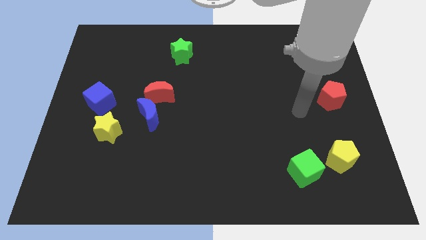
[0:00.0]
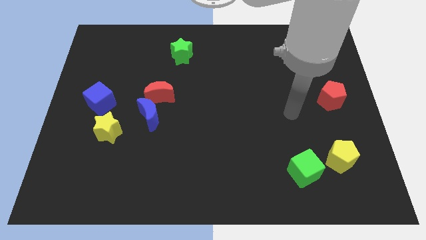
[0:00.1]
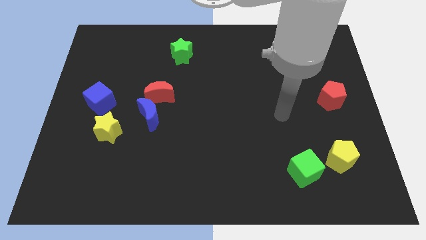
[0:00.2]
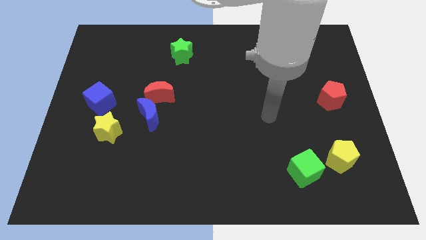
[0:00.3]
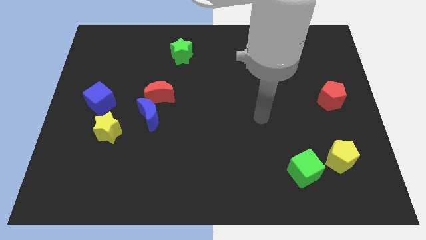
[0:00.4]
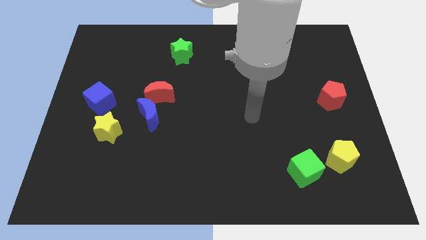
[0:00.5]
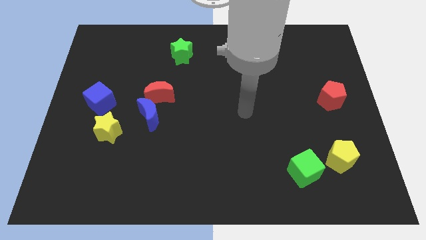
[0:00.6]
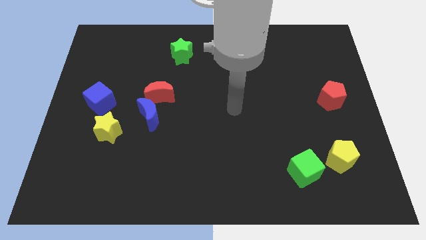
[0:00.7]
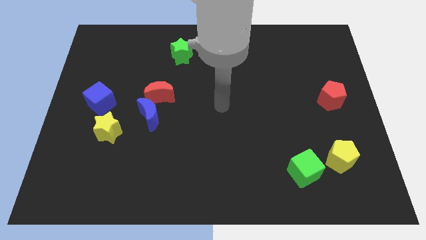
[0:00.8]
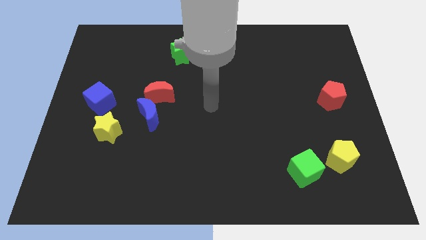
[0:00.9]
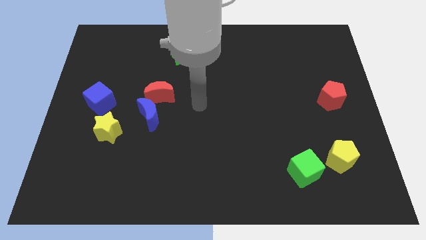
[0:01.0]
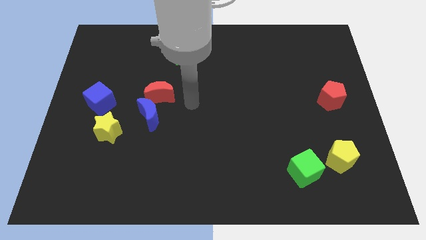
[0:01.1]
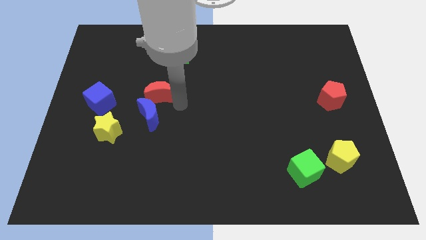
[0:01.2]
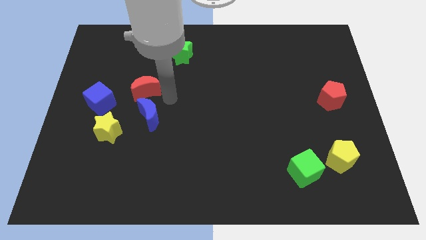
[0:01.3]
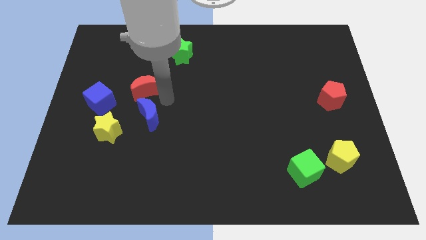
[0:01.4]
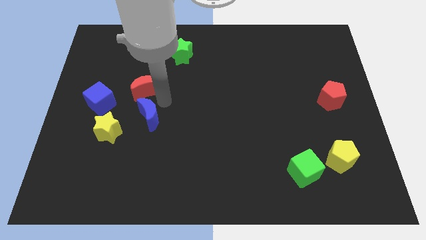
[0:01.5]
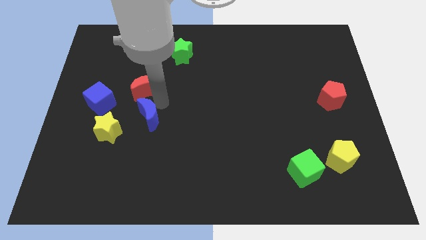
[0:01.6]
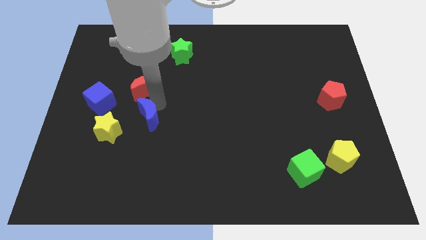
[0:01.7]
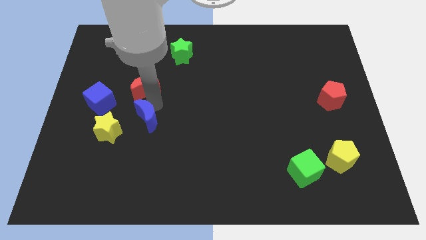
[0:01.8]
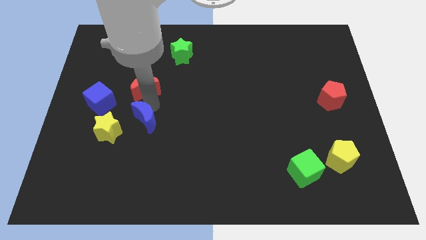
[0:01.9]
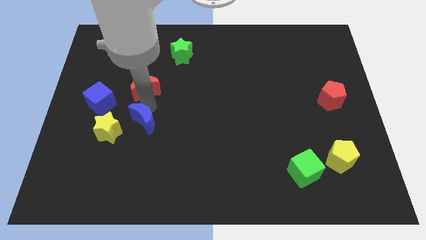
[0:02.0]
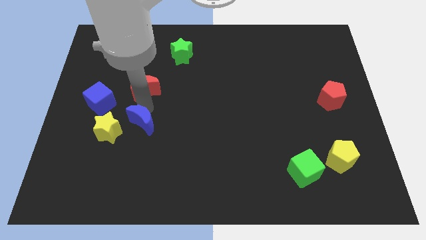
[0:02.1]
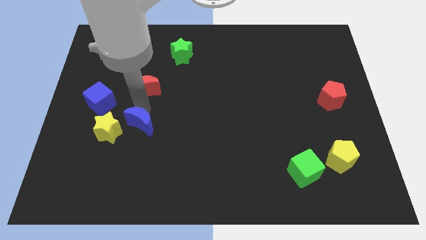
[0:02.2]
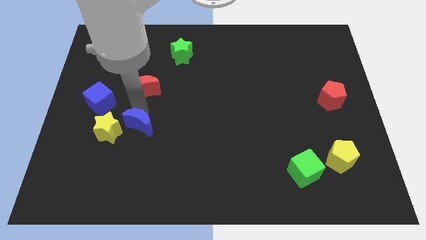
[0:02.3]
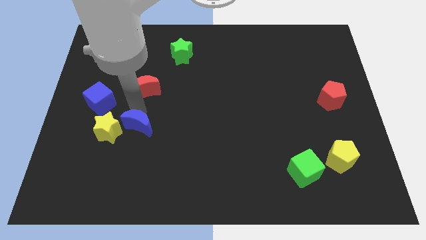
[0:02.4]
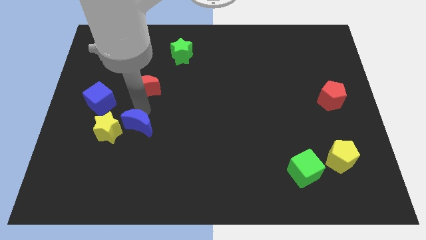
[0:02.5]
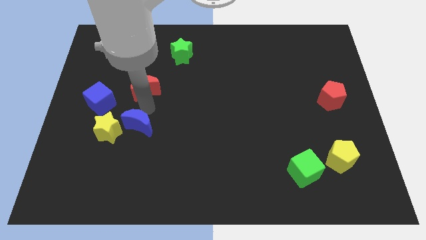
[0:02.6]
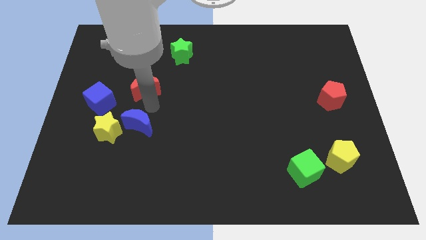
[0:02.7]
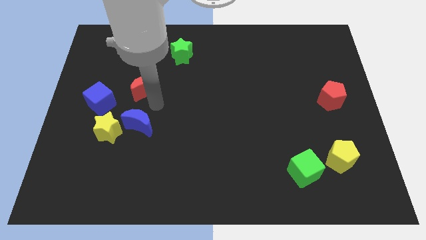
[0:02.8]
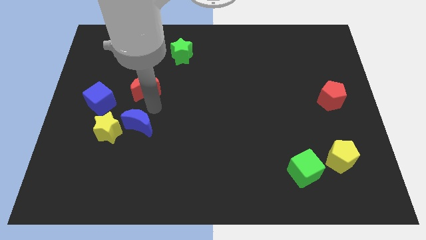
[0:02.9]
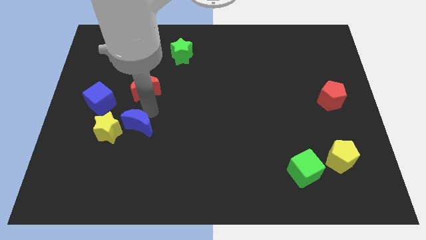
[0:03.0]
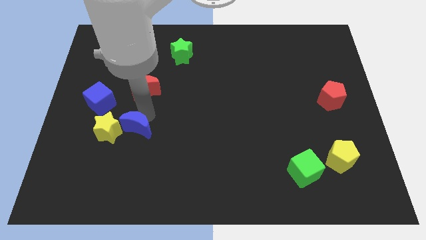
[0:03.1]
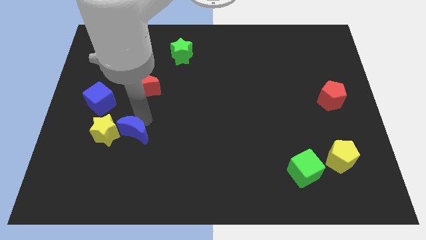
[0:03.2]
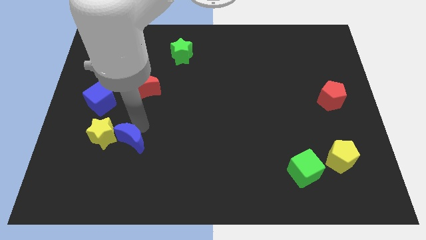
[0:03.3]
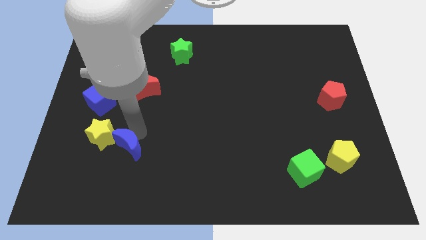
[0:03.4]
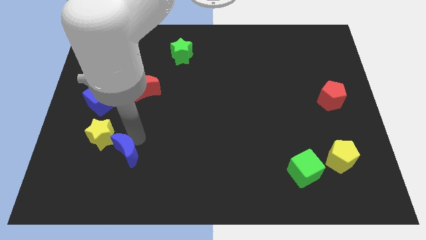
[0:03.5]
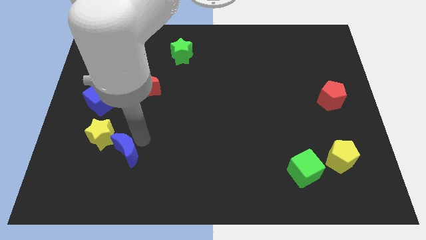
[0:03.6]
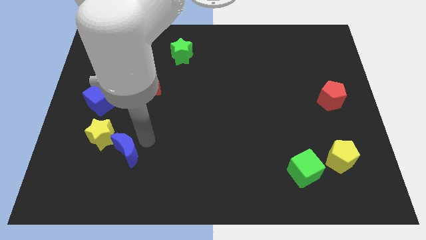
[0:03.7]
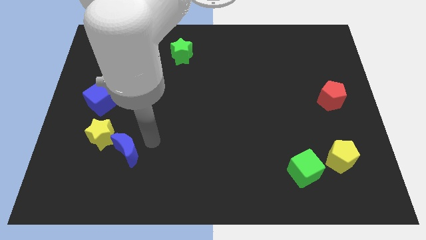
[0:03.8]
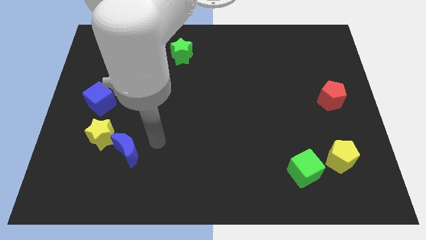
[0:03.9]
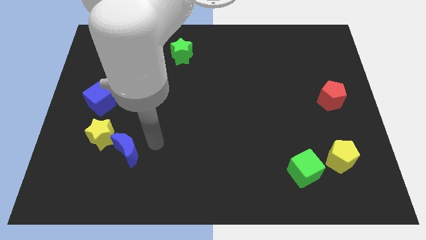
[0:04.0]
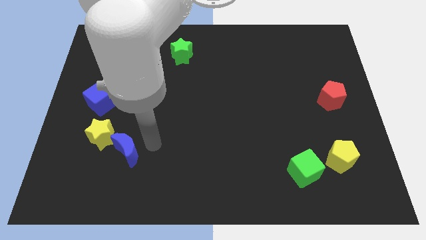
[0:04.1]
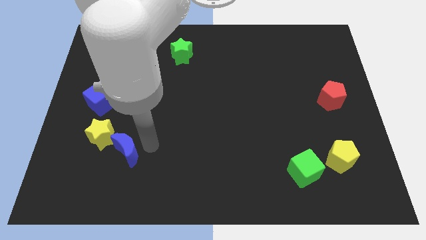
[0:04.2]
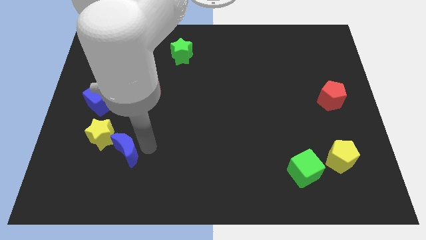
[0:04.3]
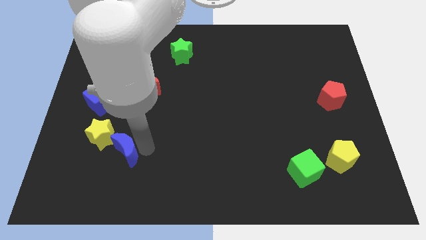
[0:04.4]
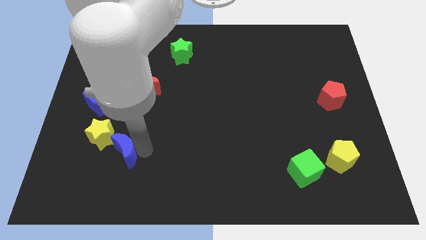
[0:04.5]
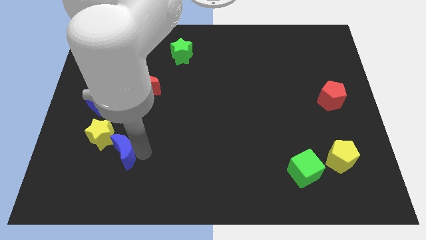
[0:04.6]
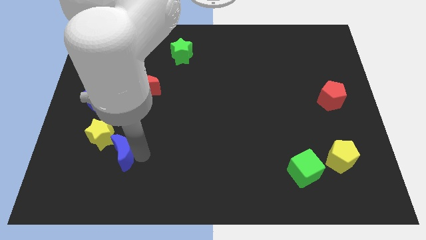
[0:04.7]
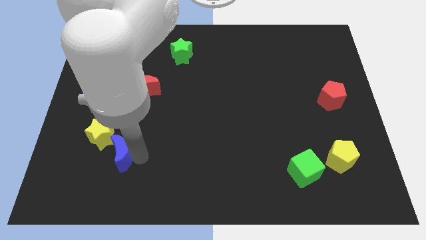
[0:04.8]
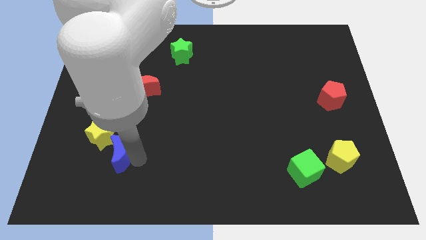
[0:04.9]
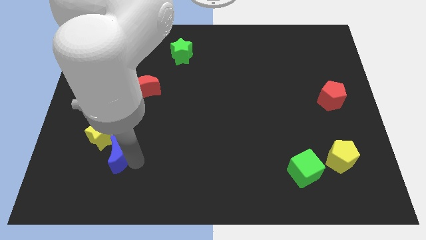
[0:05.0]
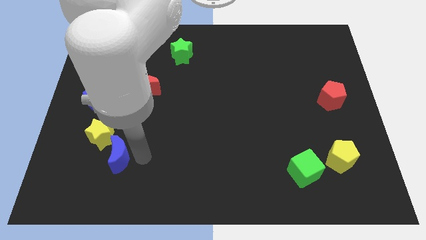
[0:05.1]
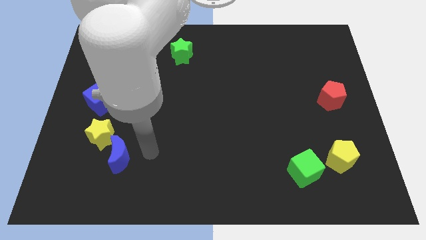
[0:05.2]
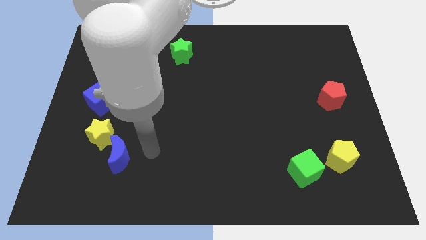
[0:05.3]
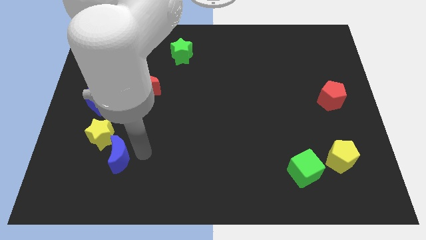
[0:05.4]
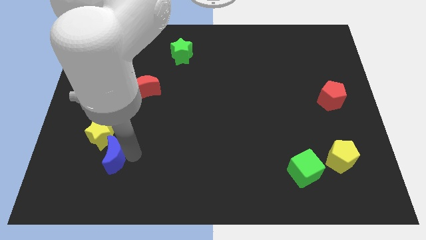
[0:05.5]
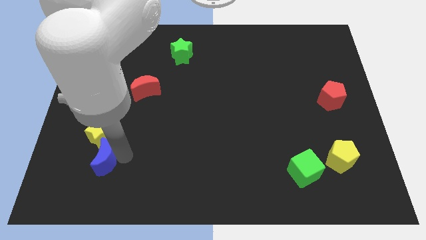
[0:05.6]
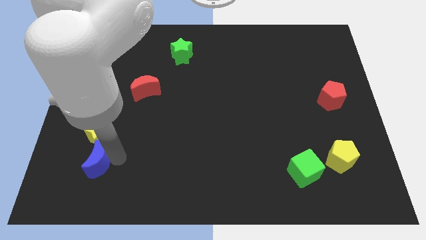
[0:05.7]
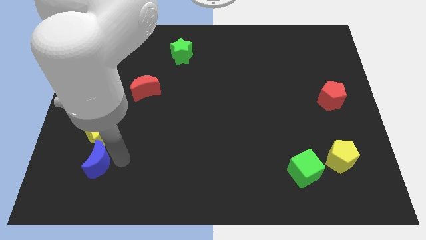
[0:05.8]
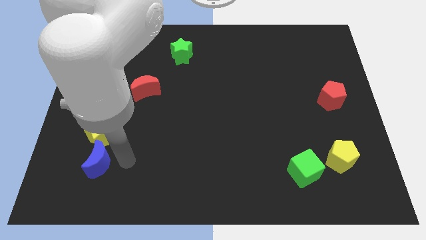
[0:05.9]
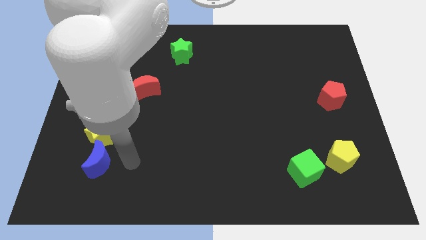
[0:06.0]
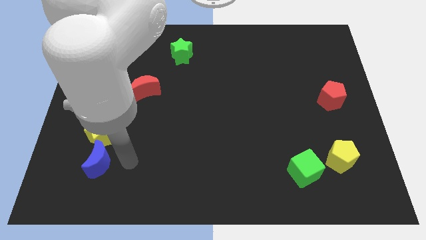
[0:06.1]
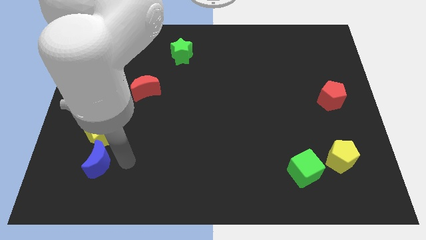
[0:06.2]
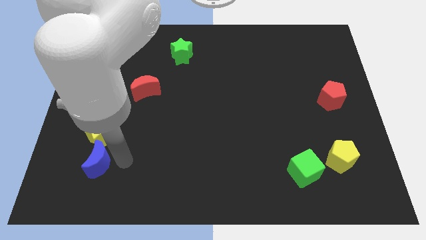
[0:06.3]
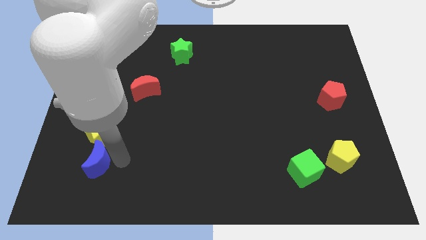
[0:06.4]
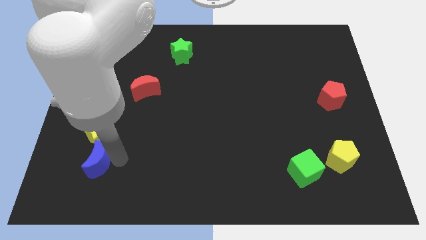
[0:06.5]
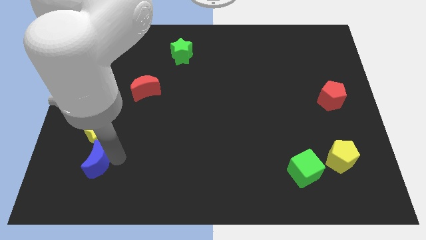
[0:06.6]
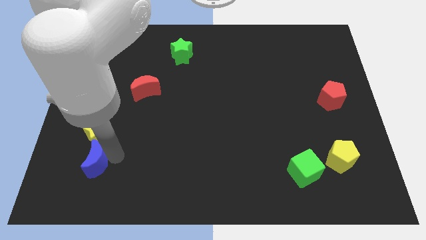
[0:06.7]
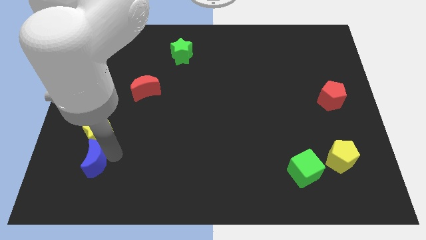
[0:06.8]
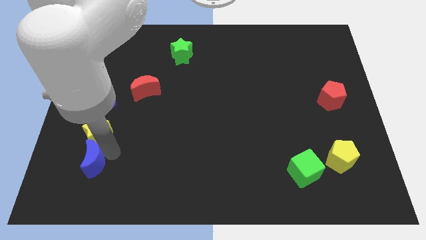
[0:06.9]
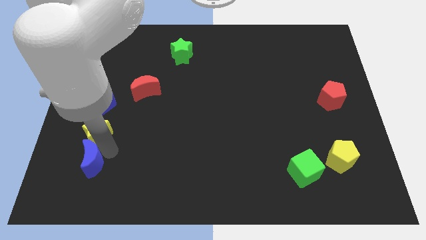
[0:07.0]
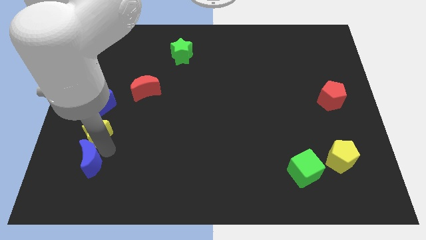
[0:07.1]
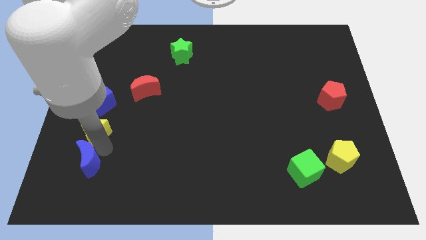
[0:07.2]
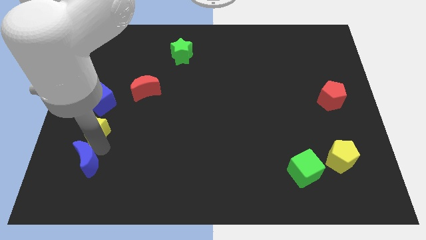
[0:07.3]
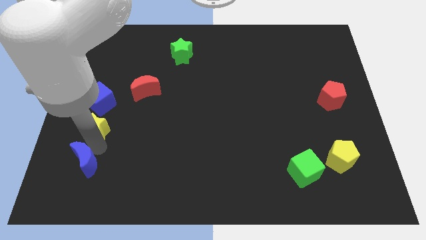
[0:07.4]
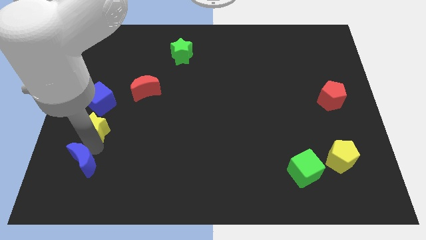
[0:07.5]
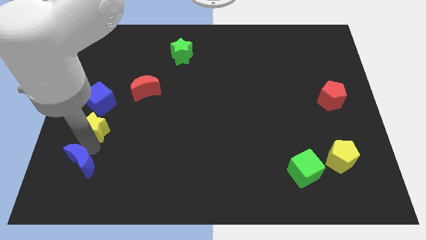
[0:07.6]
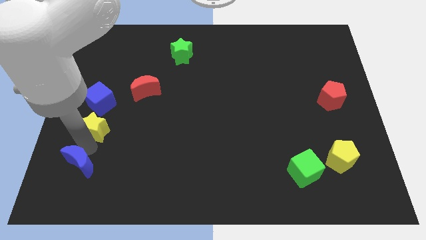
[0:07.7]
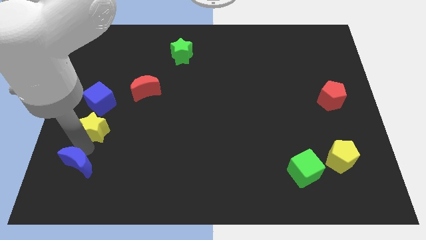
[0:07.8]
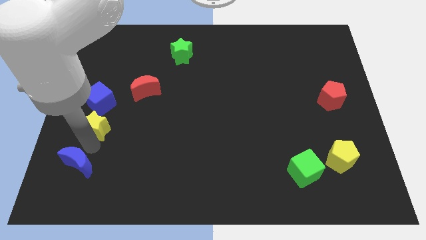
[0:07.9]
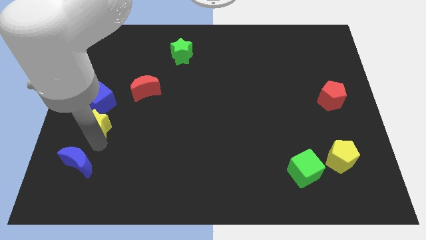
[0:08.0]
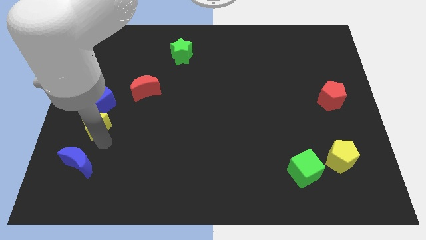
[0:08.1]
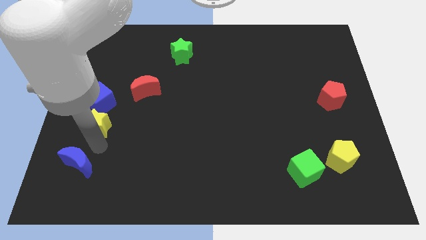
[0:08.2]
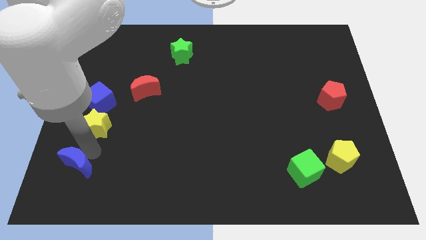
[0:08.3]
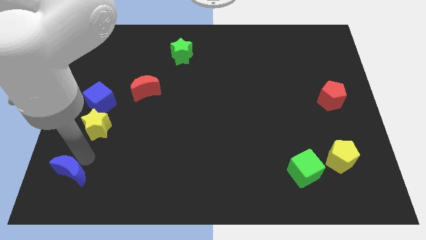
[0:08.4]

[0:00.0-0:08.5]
push the blue moon to the bottom left of the board
